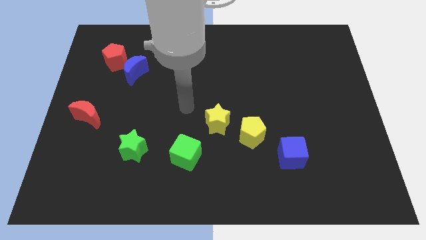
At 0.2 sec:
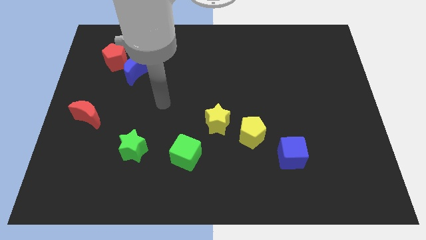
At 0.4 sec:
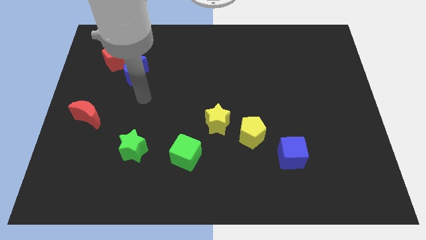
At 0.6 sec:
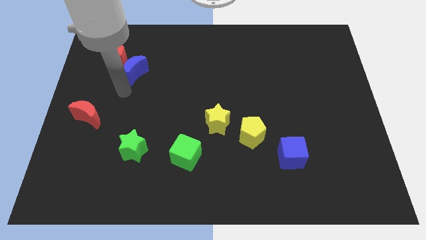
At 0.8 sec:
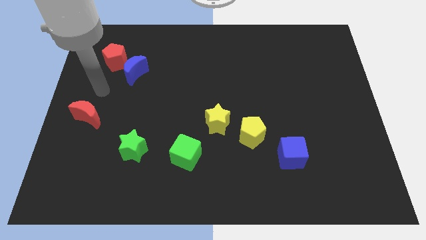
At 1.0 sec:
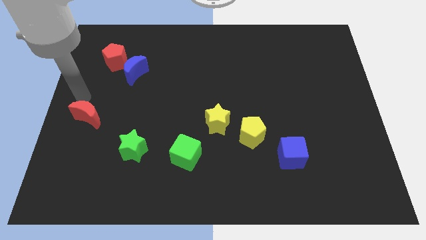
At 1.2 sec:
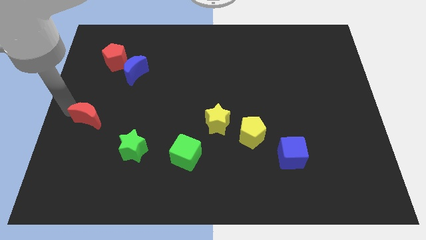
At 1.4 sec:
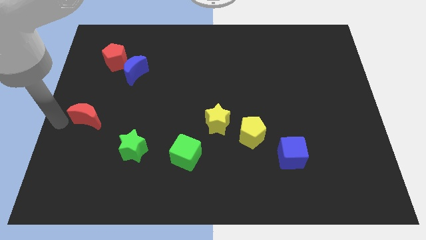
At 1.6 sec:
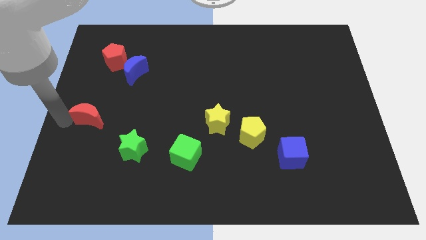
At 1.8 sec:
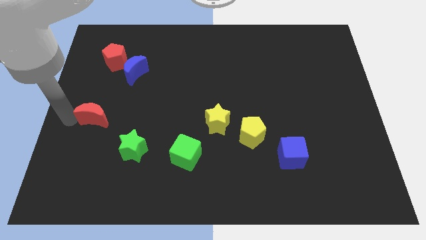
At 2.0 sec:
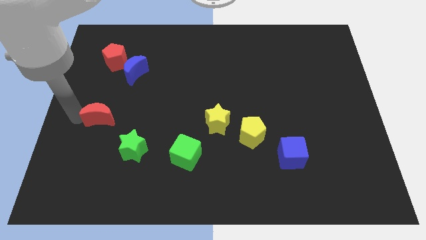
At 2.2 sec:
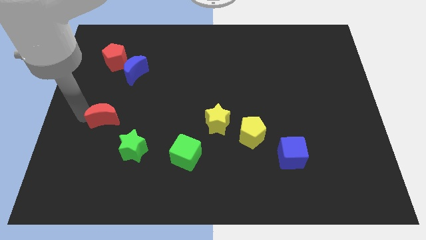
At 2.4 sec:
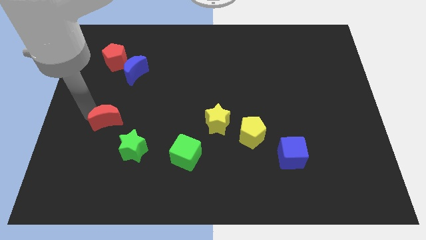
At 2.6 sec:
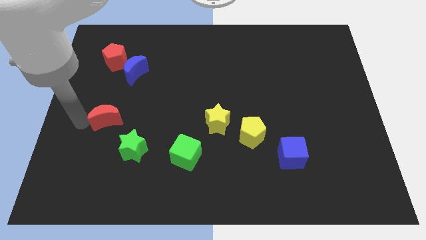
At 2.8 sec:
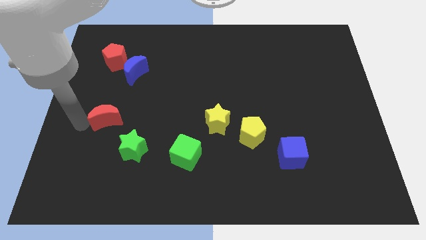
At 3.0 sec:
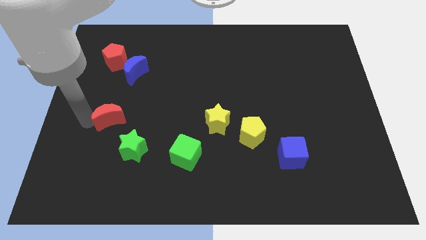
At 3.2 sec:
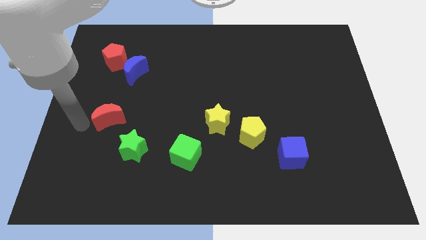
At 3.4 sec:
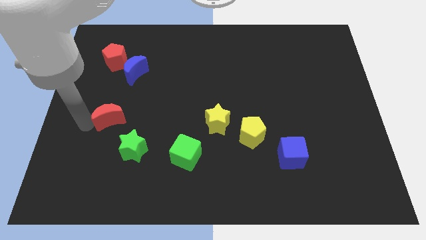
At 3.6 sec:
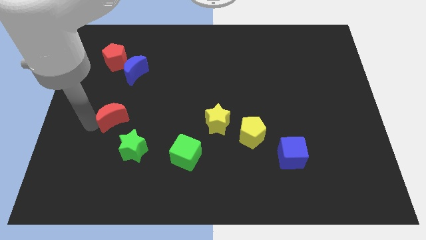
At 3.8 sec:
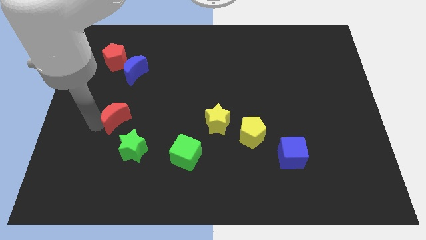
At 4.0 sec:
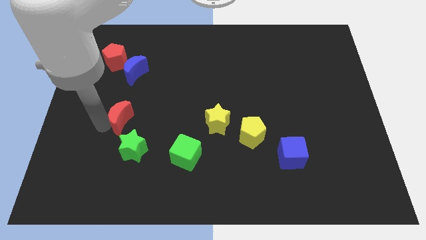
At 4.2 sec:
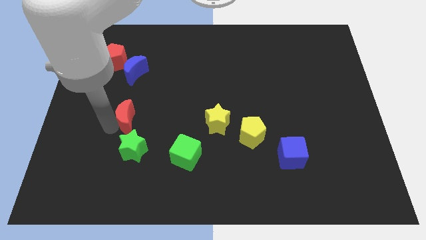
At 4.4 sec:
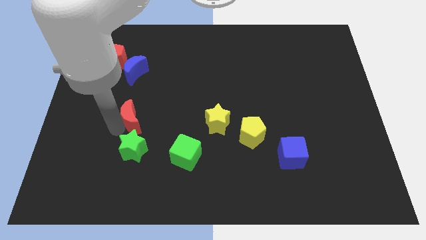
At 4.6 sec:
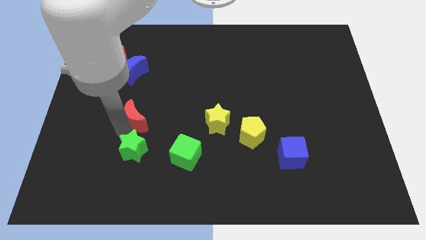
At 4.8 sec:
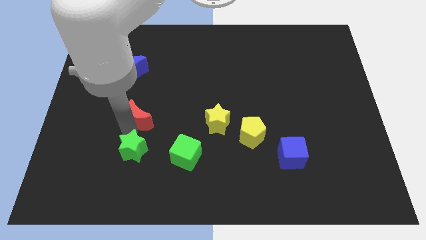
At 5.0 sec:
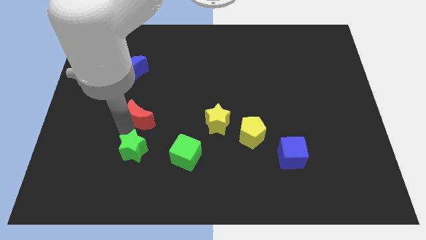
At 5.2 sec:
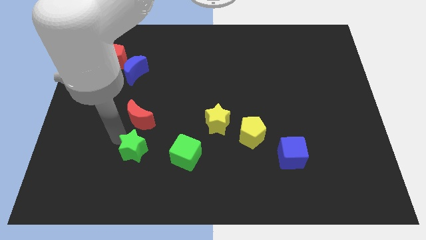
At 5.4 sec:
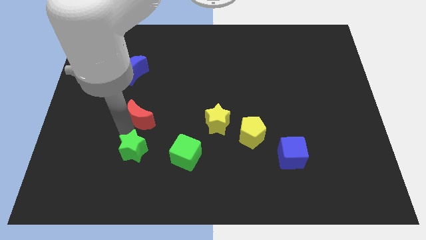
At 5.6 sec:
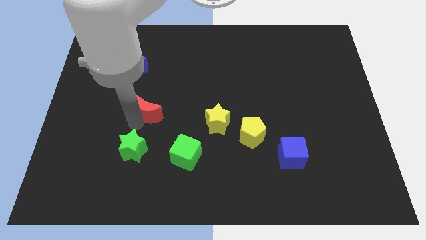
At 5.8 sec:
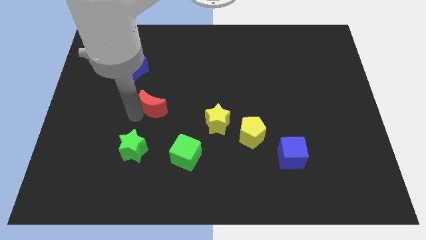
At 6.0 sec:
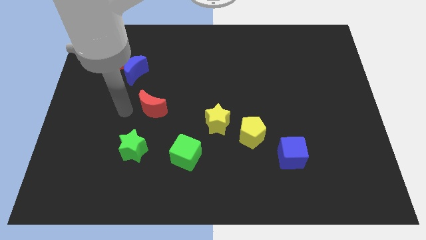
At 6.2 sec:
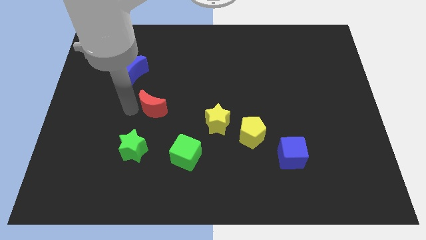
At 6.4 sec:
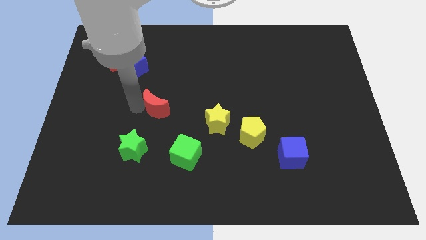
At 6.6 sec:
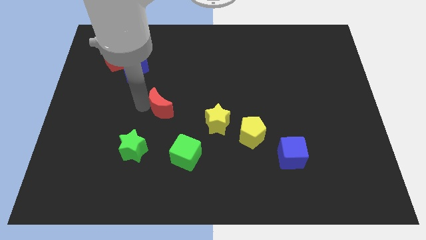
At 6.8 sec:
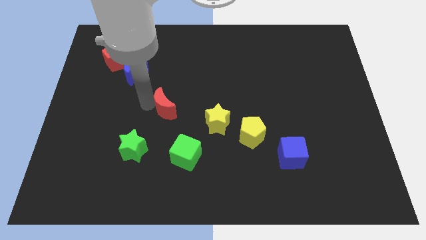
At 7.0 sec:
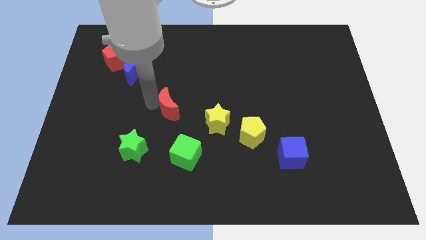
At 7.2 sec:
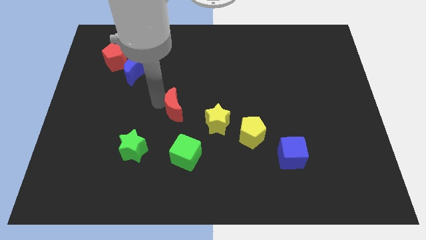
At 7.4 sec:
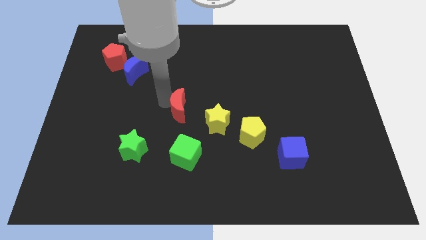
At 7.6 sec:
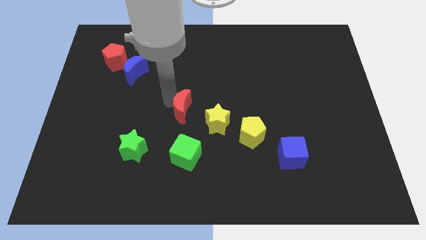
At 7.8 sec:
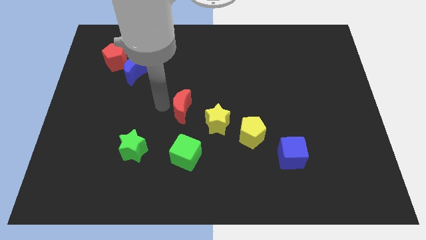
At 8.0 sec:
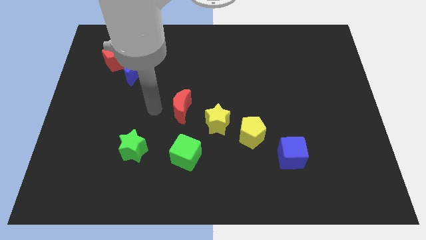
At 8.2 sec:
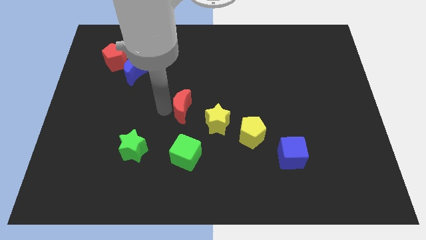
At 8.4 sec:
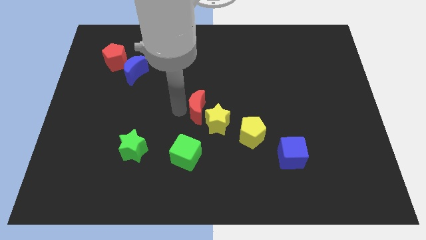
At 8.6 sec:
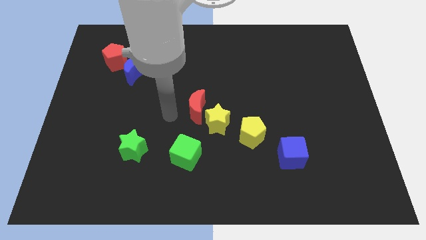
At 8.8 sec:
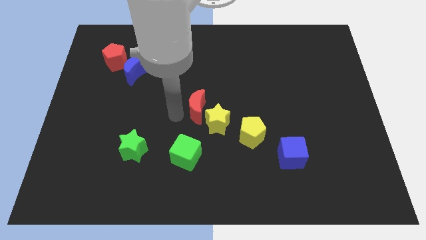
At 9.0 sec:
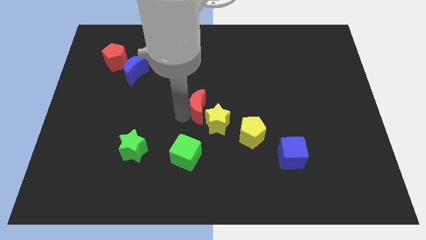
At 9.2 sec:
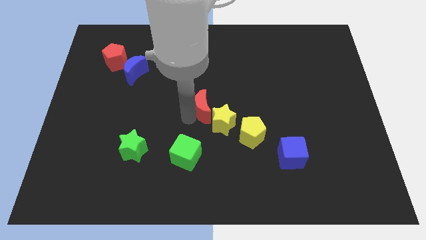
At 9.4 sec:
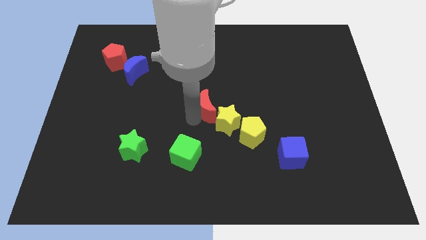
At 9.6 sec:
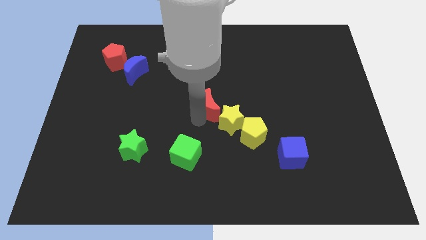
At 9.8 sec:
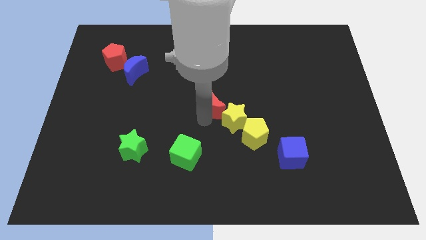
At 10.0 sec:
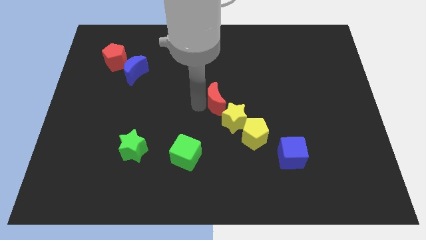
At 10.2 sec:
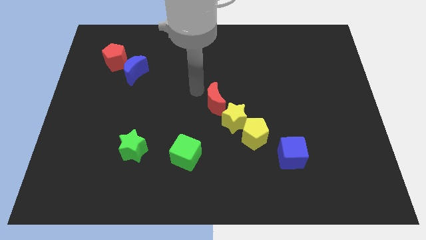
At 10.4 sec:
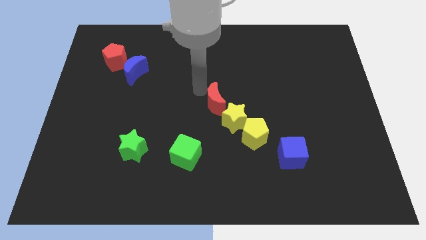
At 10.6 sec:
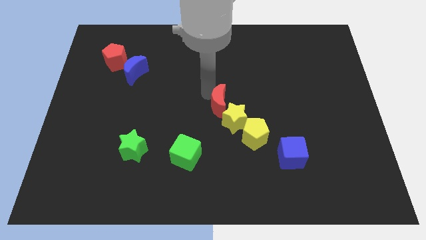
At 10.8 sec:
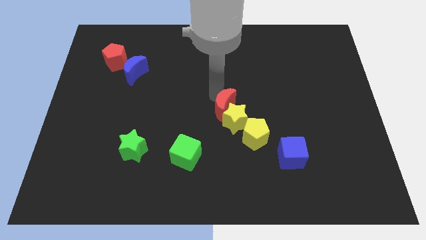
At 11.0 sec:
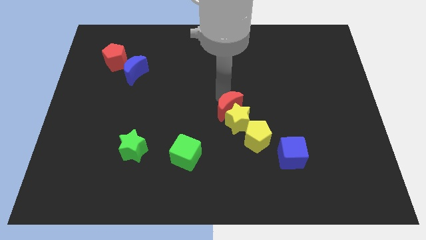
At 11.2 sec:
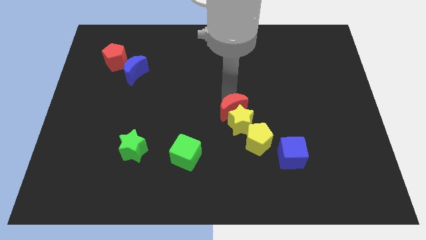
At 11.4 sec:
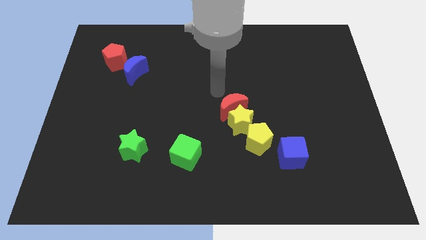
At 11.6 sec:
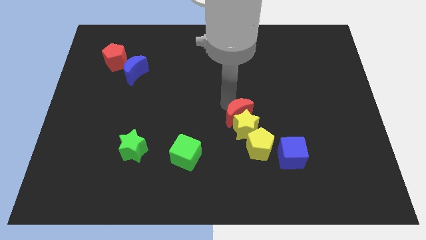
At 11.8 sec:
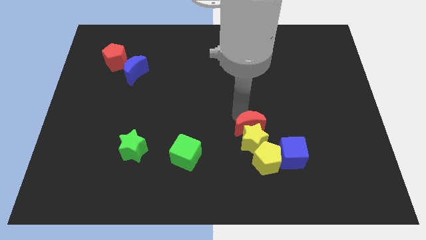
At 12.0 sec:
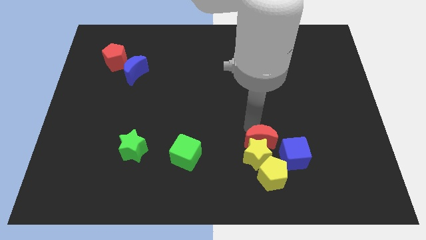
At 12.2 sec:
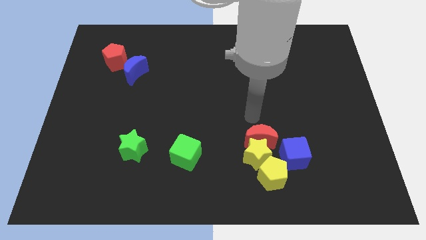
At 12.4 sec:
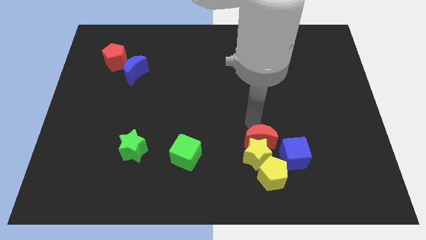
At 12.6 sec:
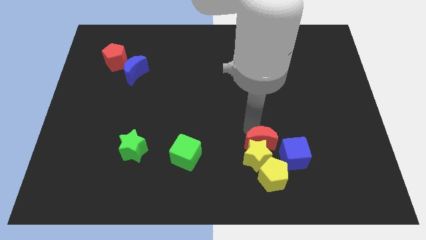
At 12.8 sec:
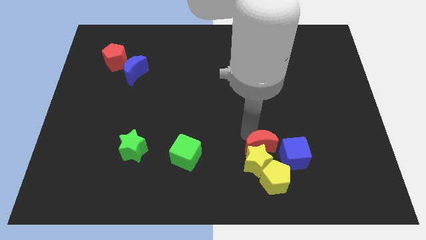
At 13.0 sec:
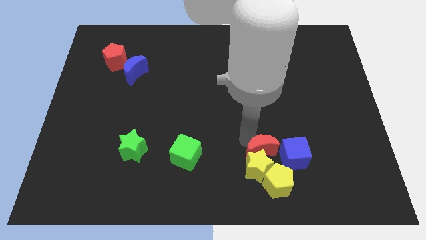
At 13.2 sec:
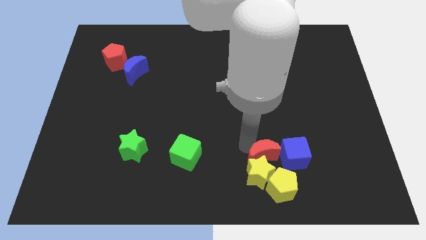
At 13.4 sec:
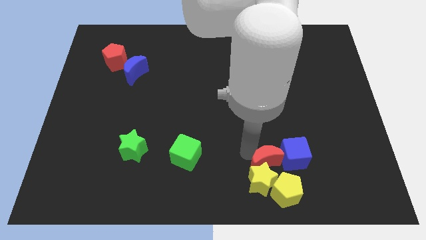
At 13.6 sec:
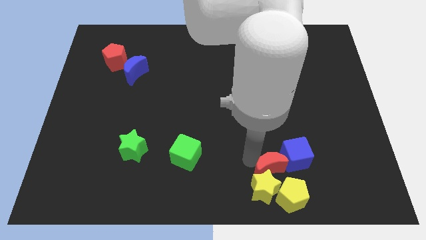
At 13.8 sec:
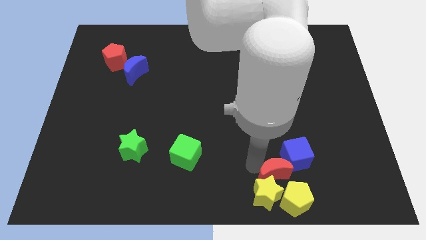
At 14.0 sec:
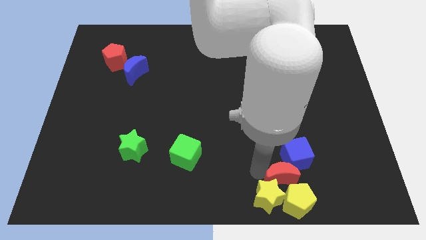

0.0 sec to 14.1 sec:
move the red moon towards the yellow pentagon
